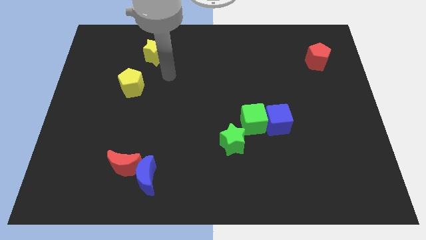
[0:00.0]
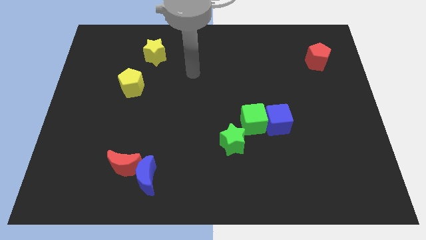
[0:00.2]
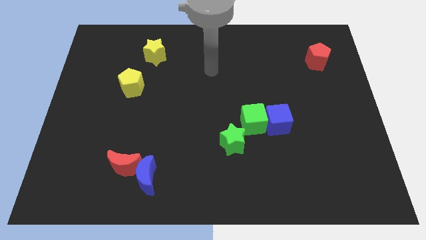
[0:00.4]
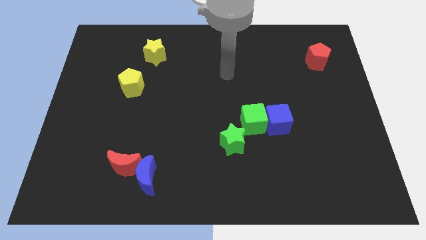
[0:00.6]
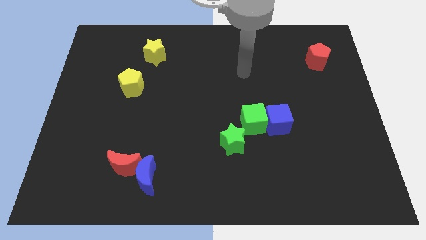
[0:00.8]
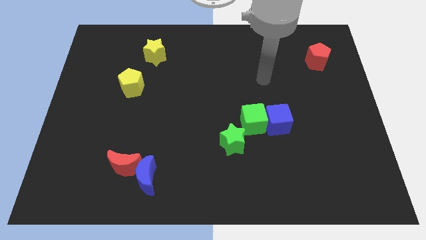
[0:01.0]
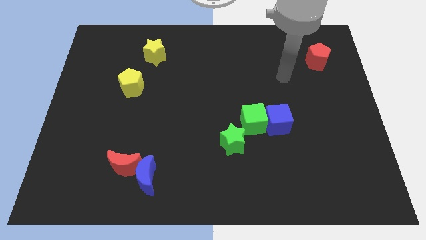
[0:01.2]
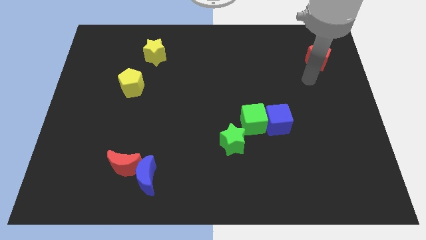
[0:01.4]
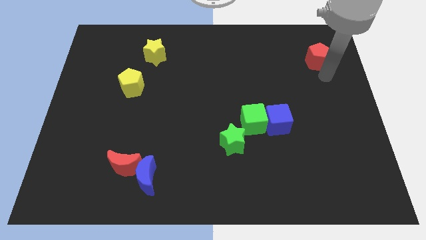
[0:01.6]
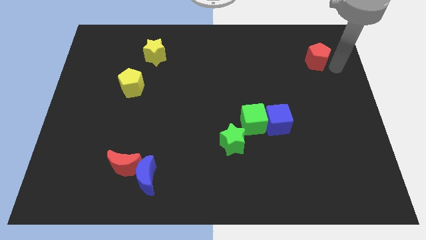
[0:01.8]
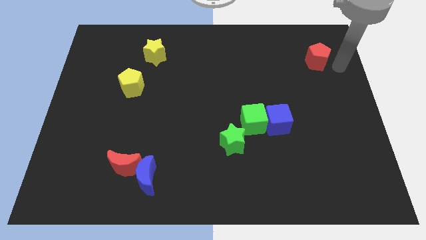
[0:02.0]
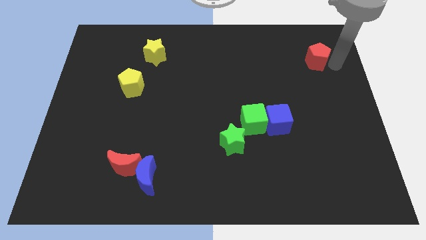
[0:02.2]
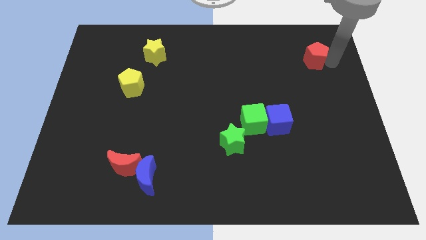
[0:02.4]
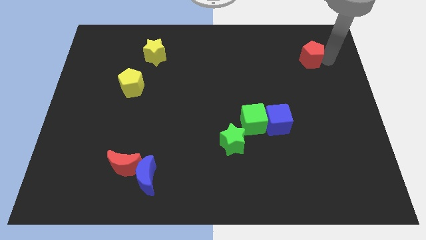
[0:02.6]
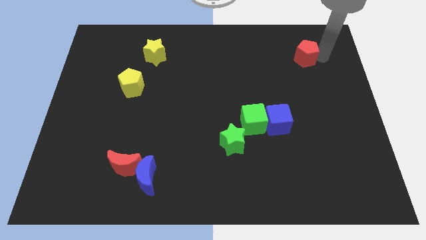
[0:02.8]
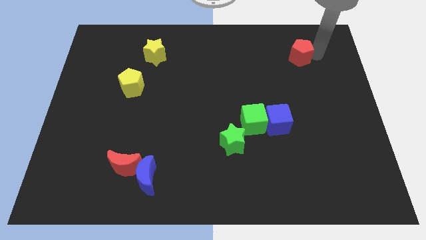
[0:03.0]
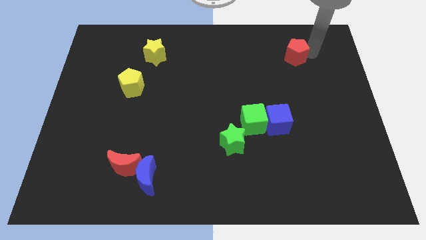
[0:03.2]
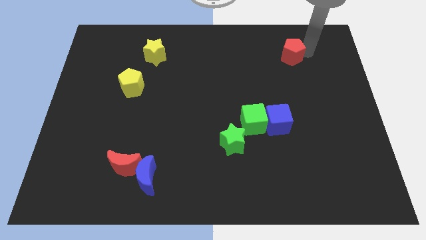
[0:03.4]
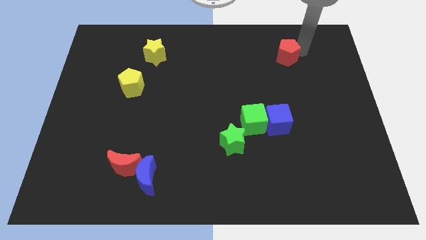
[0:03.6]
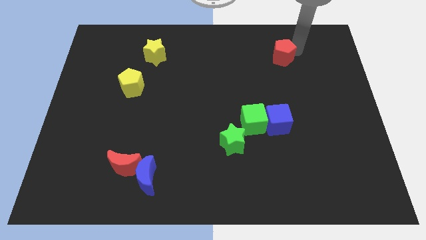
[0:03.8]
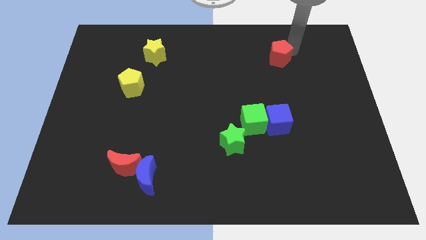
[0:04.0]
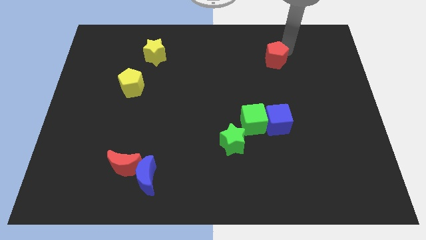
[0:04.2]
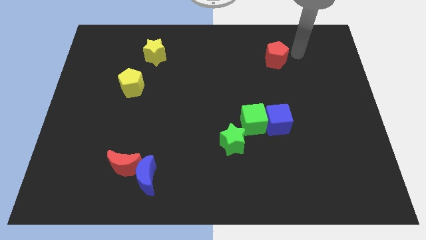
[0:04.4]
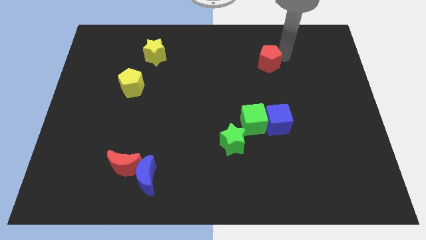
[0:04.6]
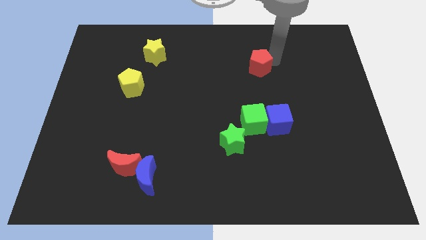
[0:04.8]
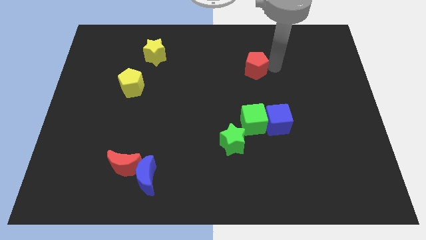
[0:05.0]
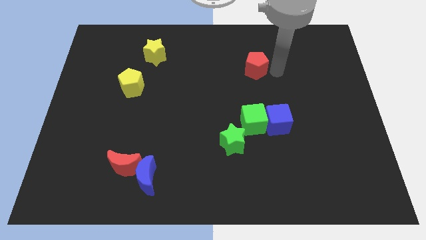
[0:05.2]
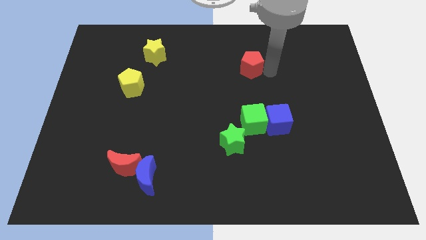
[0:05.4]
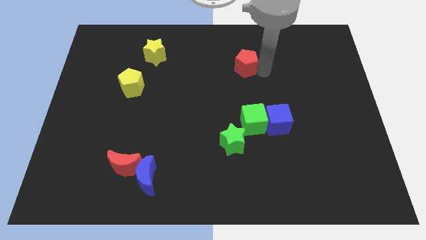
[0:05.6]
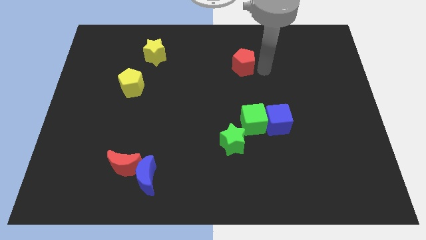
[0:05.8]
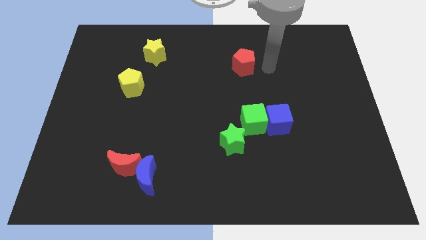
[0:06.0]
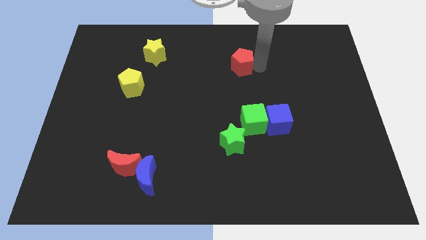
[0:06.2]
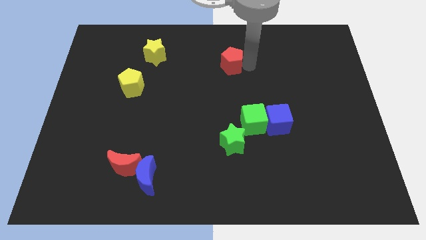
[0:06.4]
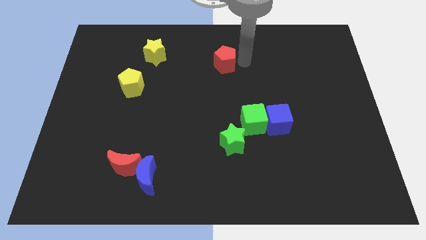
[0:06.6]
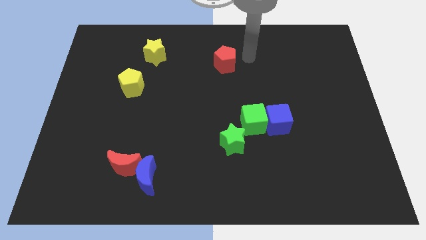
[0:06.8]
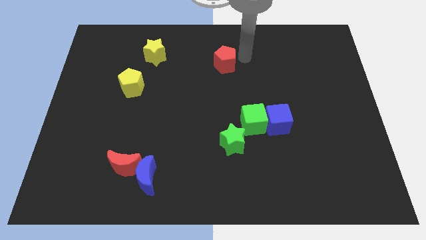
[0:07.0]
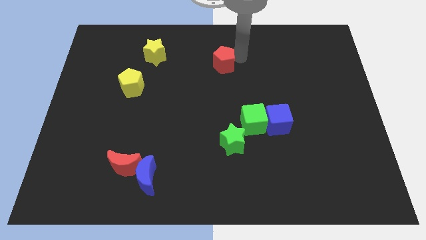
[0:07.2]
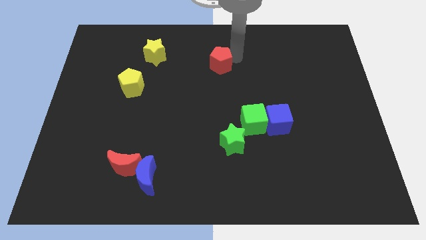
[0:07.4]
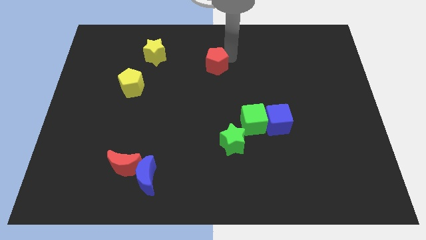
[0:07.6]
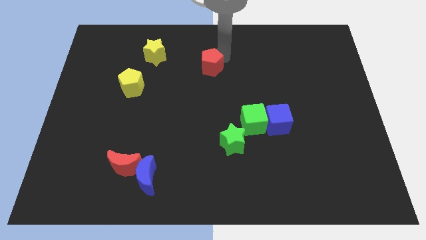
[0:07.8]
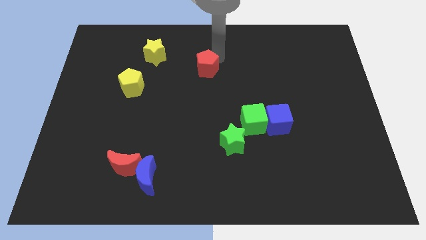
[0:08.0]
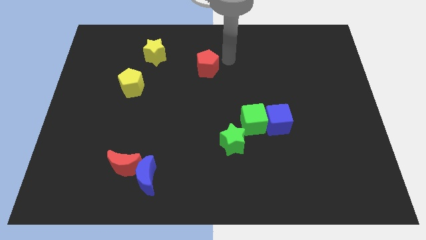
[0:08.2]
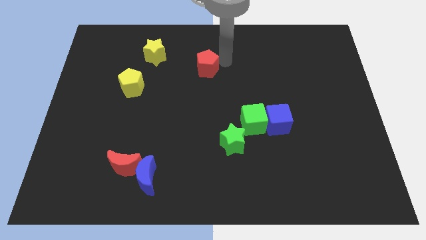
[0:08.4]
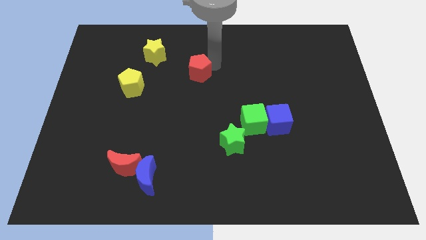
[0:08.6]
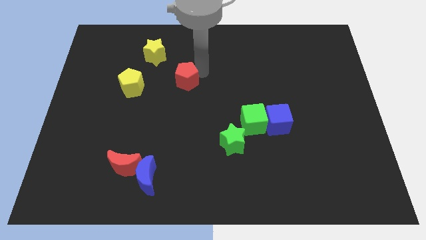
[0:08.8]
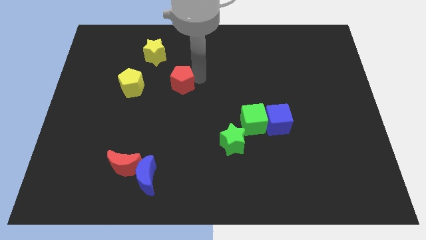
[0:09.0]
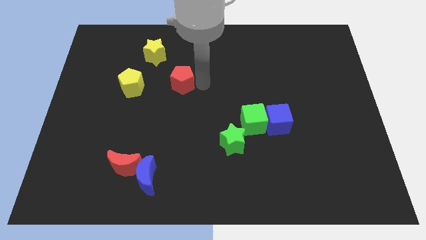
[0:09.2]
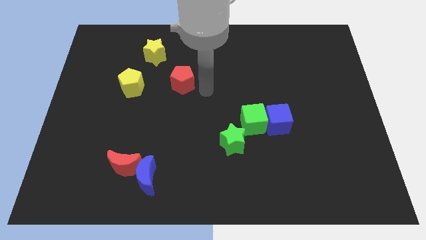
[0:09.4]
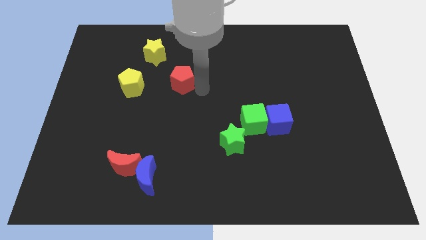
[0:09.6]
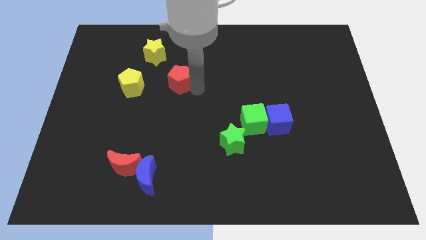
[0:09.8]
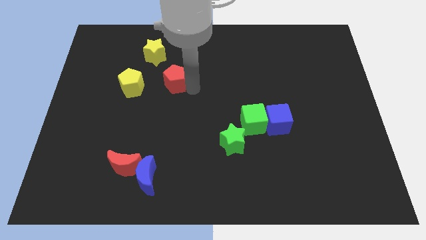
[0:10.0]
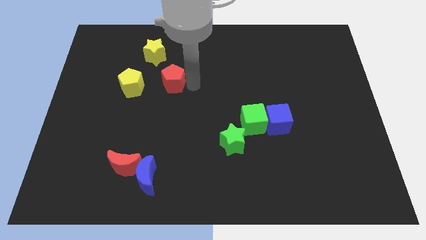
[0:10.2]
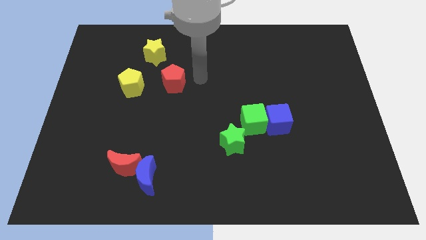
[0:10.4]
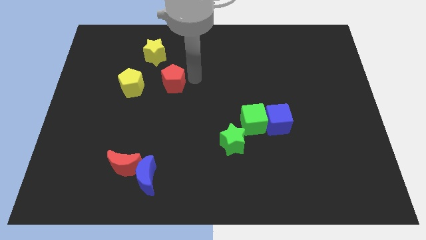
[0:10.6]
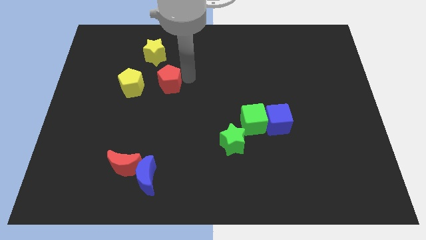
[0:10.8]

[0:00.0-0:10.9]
move the red pentagon below the yellow star
